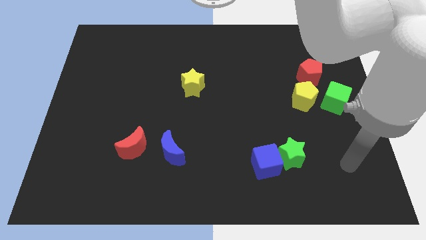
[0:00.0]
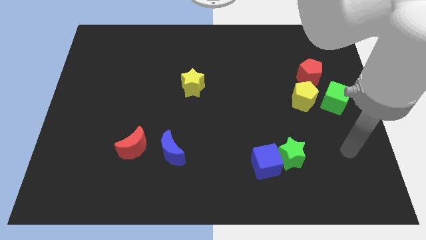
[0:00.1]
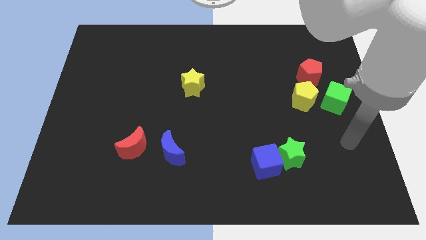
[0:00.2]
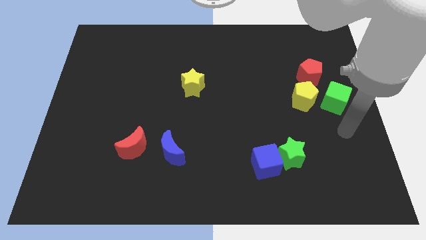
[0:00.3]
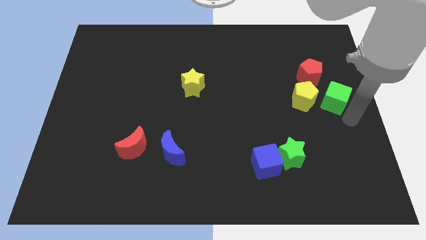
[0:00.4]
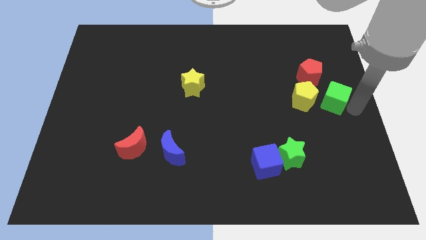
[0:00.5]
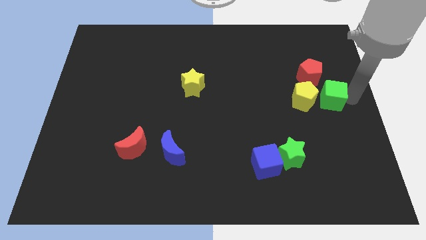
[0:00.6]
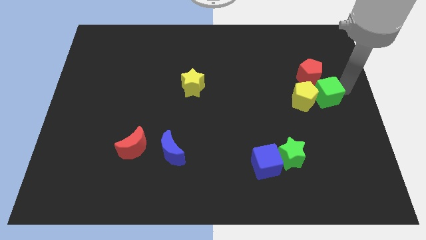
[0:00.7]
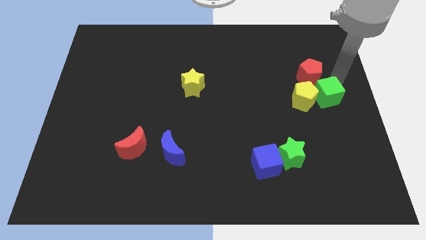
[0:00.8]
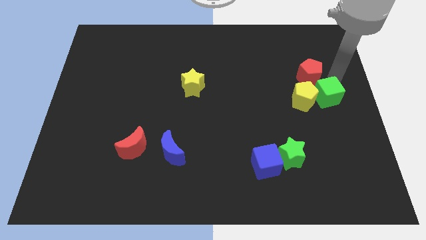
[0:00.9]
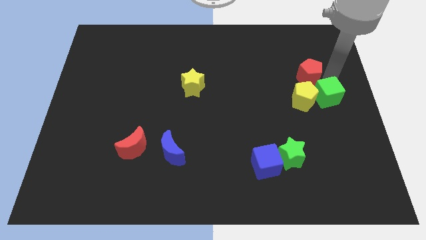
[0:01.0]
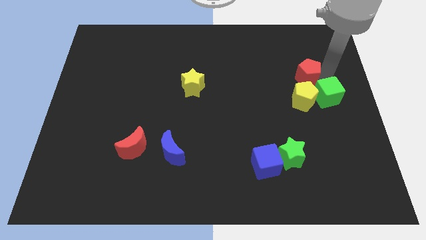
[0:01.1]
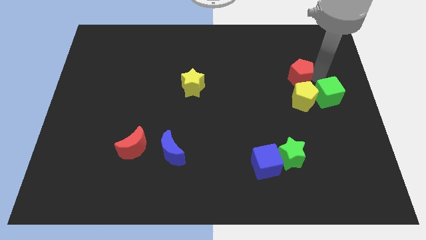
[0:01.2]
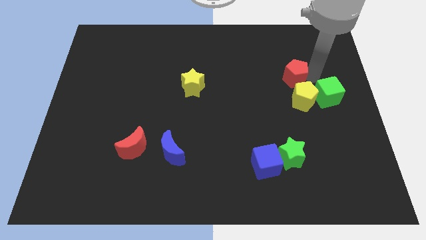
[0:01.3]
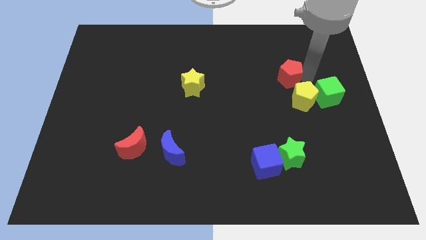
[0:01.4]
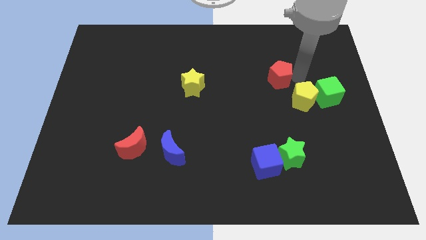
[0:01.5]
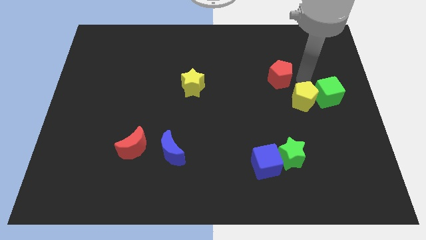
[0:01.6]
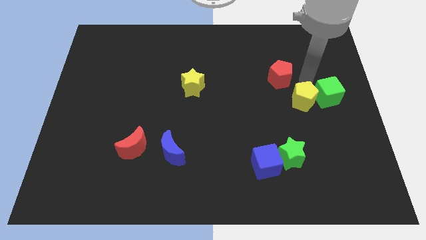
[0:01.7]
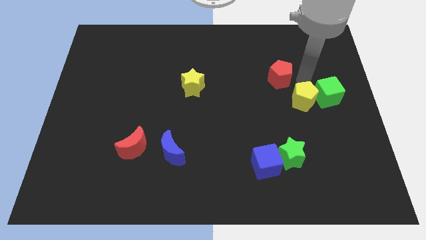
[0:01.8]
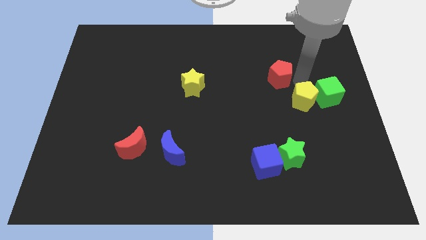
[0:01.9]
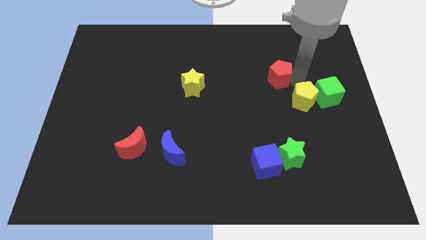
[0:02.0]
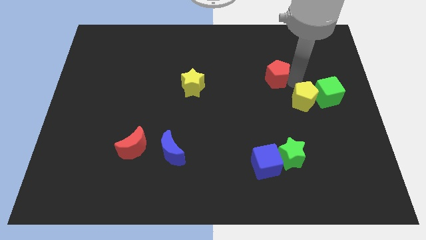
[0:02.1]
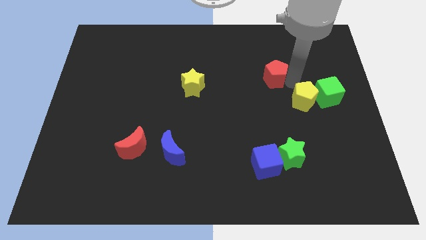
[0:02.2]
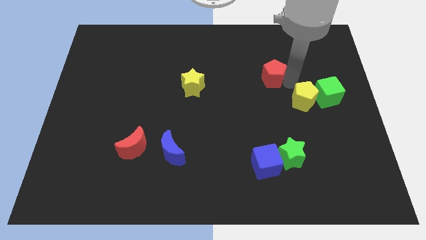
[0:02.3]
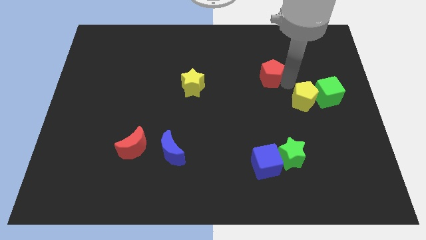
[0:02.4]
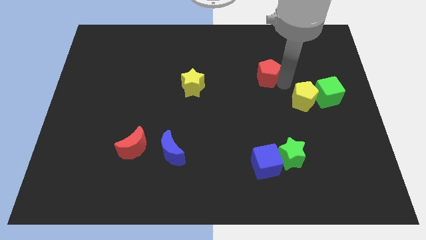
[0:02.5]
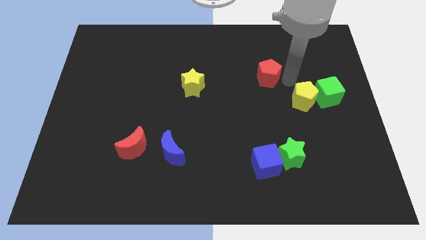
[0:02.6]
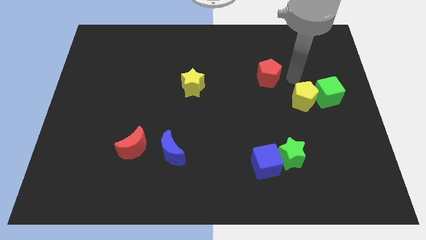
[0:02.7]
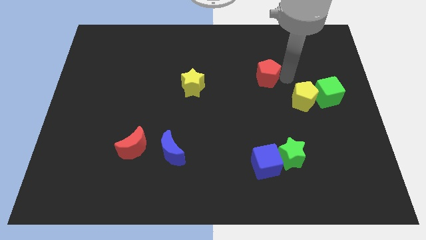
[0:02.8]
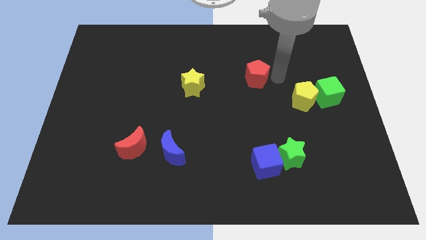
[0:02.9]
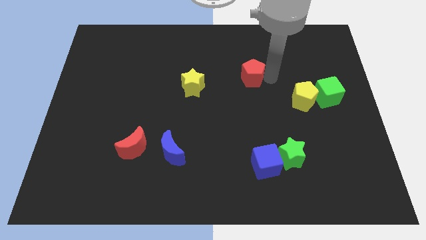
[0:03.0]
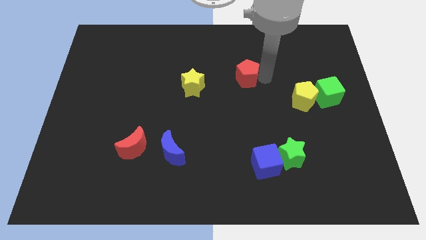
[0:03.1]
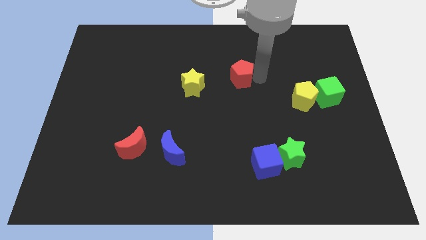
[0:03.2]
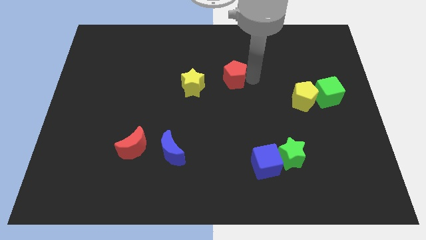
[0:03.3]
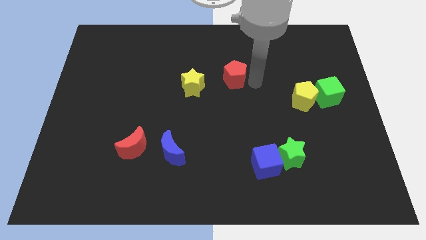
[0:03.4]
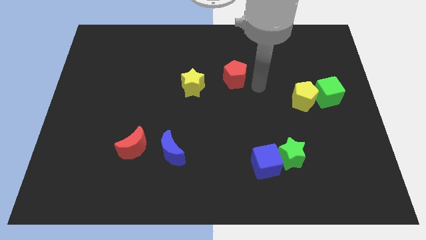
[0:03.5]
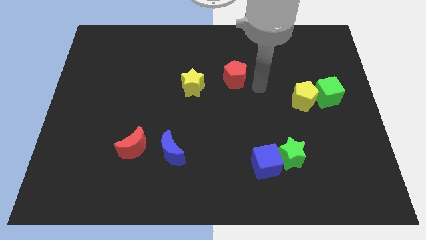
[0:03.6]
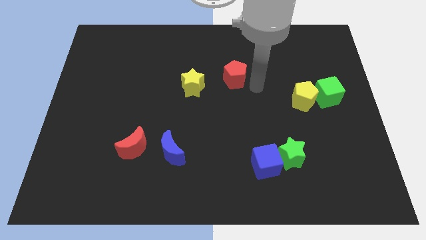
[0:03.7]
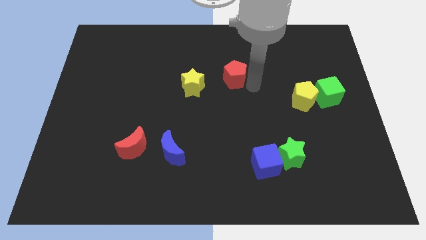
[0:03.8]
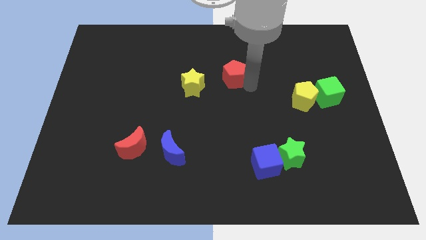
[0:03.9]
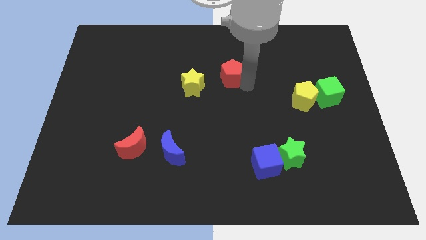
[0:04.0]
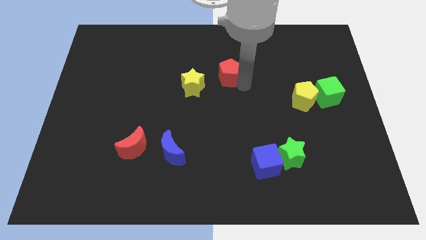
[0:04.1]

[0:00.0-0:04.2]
move the red pentagon left

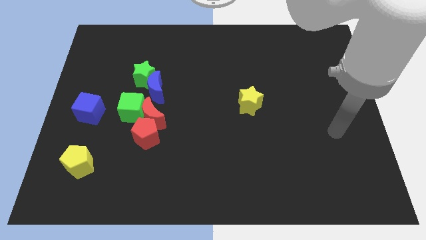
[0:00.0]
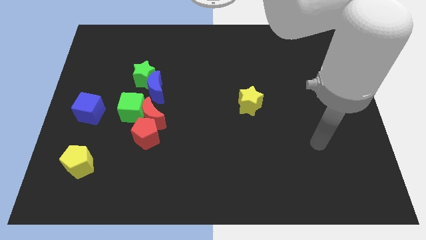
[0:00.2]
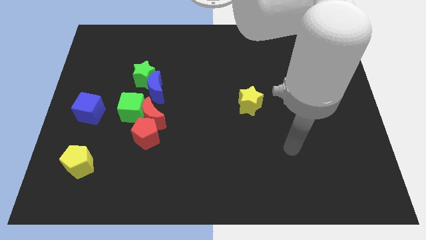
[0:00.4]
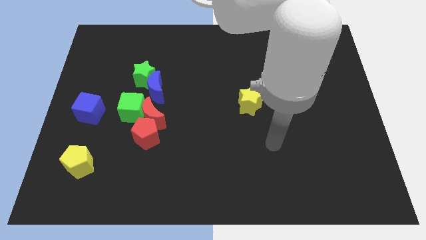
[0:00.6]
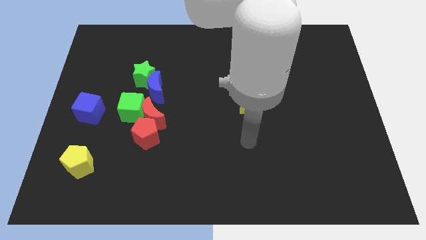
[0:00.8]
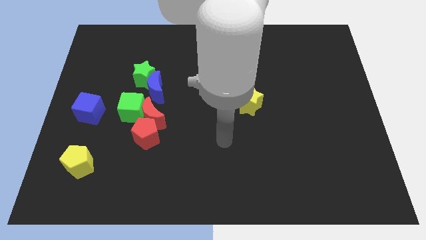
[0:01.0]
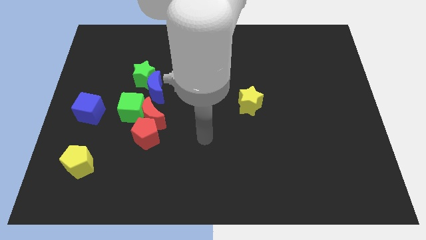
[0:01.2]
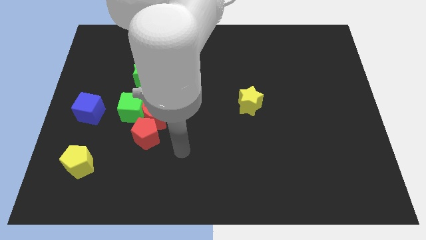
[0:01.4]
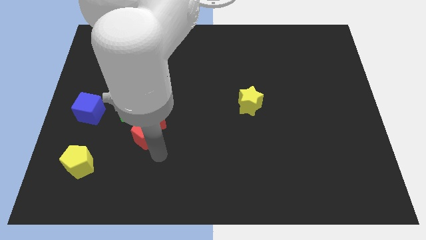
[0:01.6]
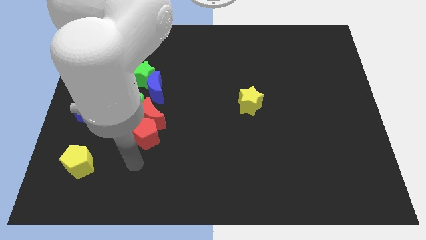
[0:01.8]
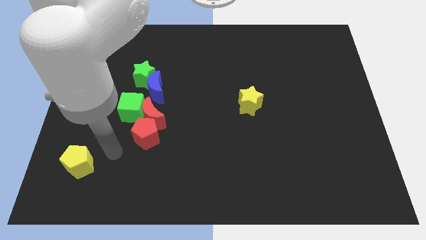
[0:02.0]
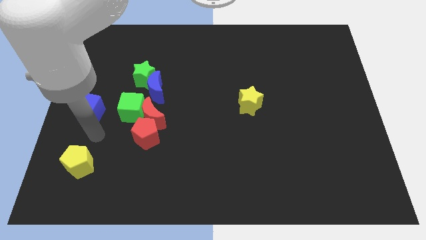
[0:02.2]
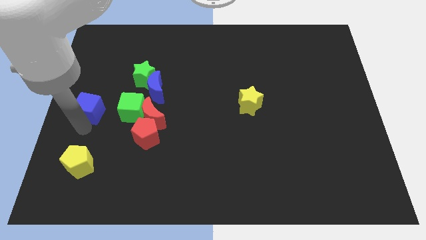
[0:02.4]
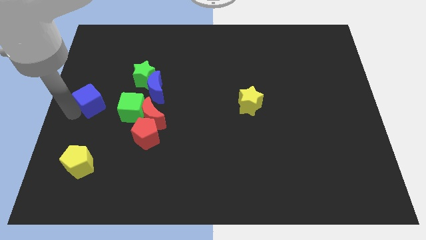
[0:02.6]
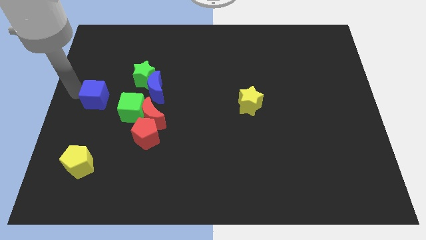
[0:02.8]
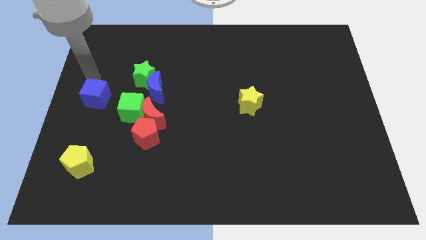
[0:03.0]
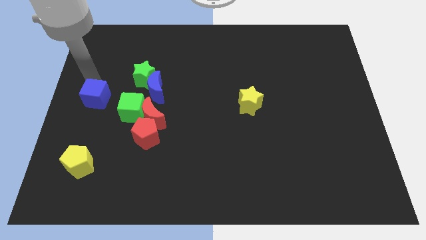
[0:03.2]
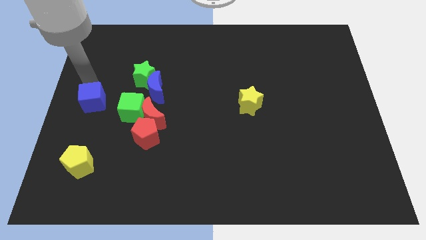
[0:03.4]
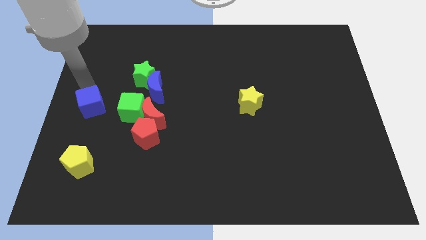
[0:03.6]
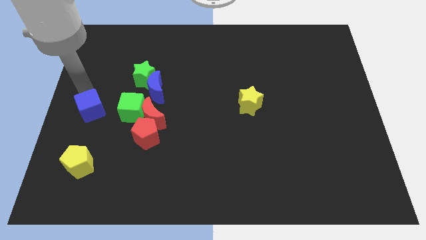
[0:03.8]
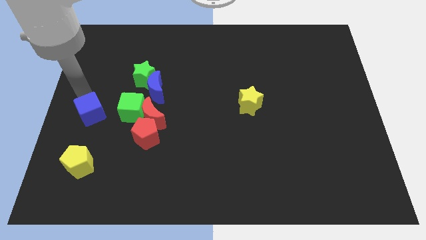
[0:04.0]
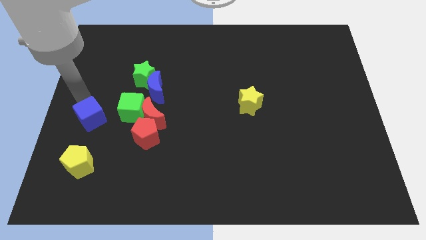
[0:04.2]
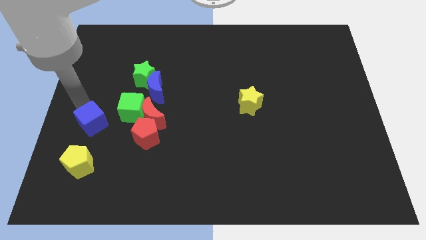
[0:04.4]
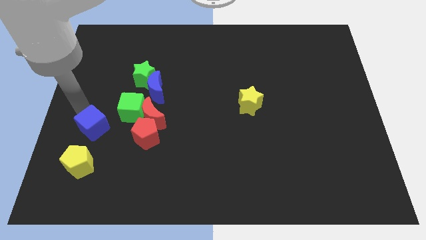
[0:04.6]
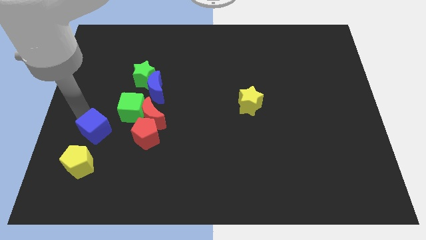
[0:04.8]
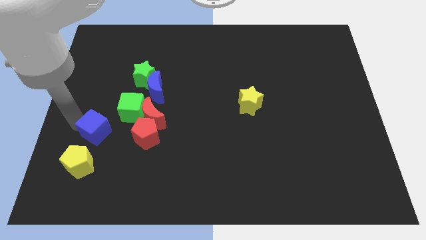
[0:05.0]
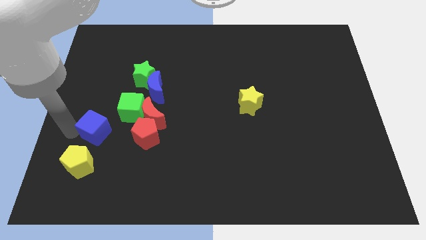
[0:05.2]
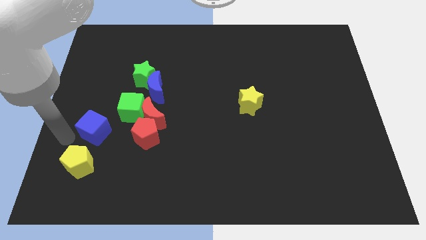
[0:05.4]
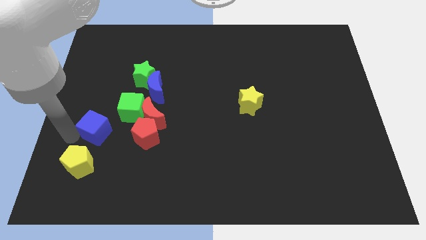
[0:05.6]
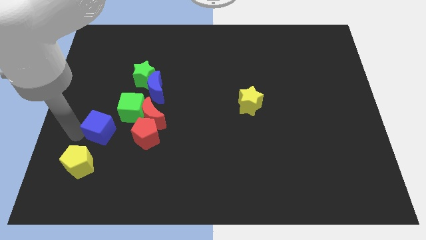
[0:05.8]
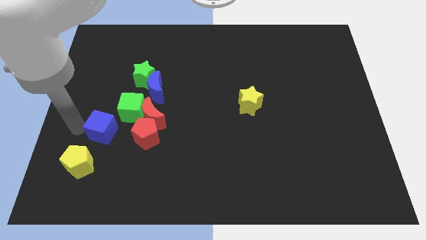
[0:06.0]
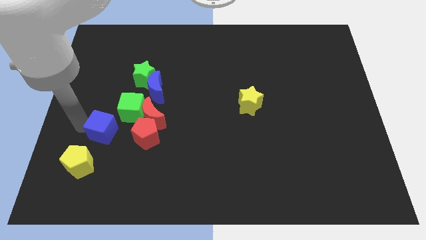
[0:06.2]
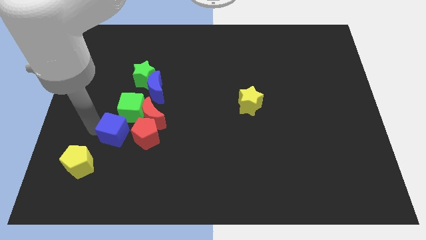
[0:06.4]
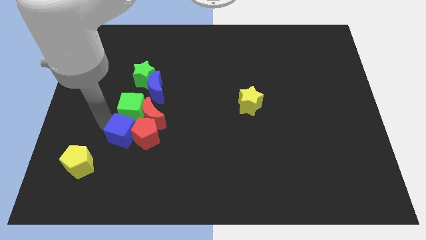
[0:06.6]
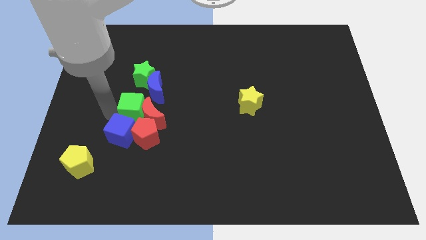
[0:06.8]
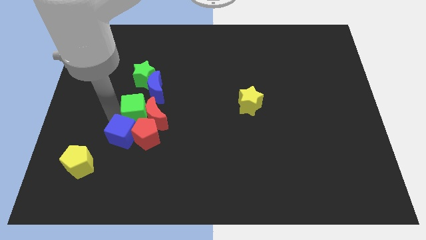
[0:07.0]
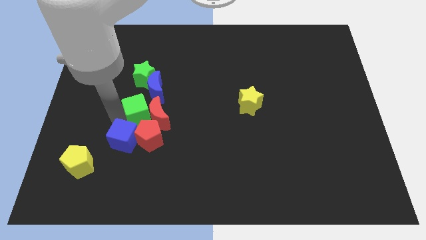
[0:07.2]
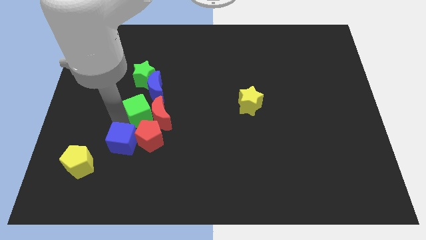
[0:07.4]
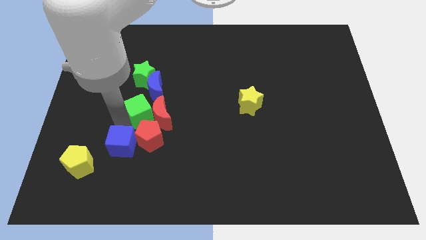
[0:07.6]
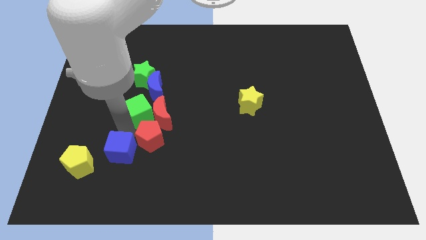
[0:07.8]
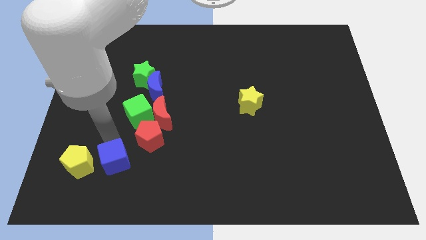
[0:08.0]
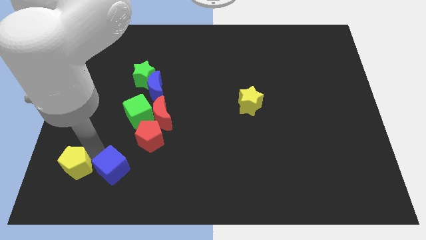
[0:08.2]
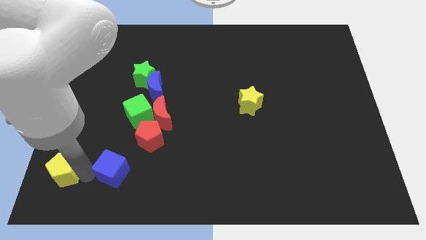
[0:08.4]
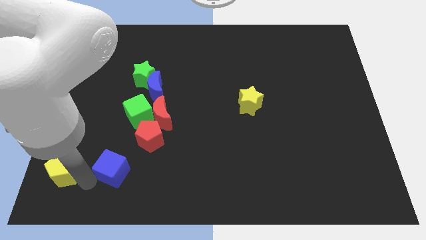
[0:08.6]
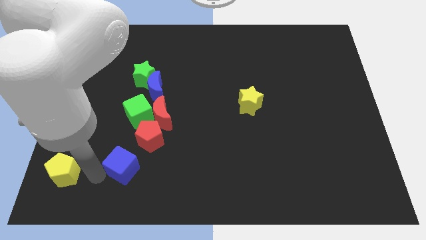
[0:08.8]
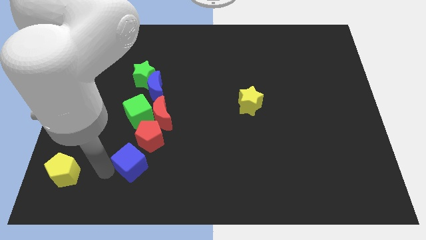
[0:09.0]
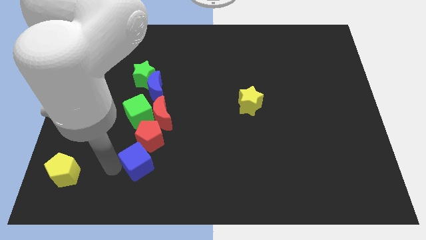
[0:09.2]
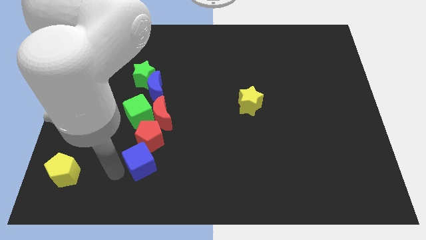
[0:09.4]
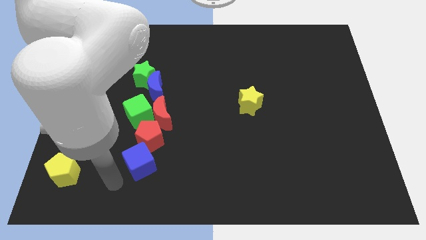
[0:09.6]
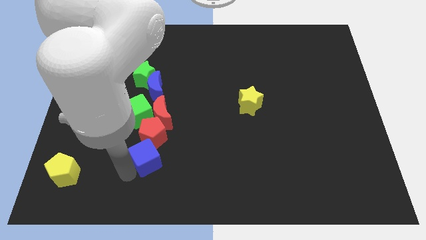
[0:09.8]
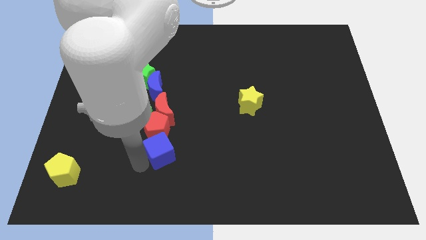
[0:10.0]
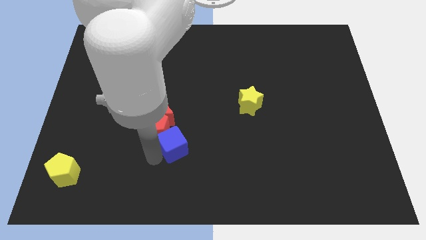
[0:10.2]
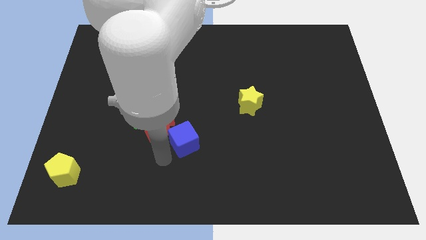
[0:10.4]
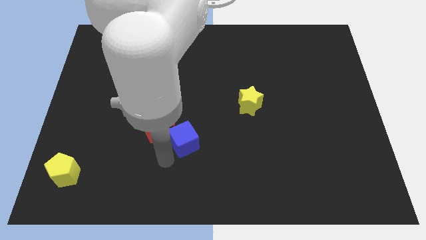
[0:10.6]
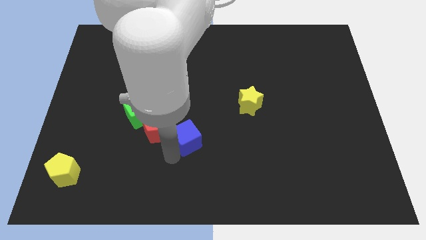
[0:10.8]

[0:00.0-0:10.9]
move the blue cube right
